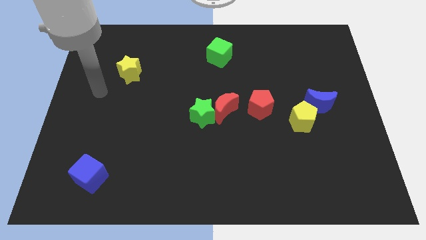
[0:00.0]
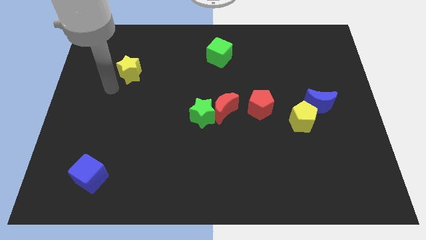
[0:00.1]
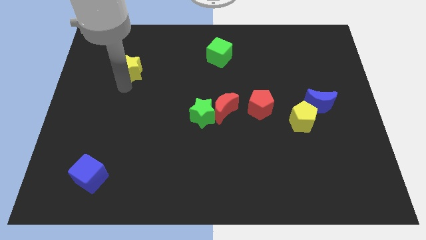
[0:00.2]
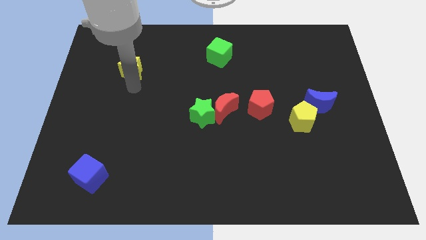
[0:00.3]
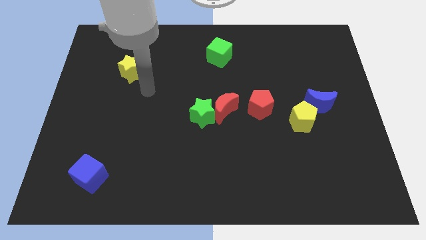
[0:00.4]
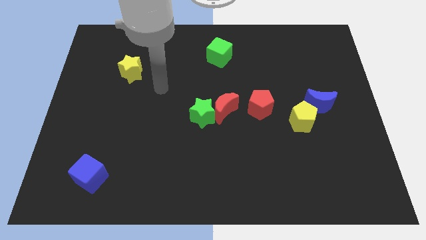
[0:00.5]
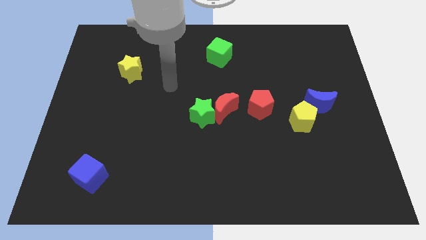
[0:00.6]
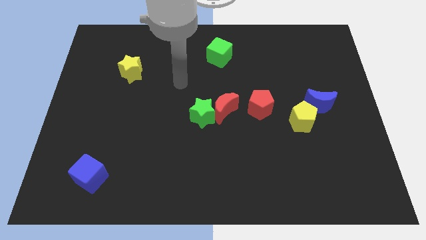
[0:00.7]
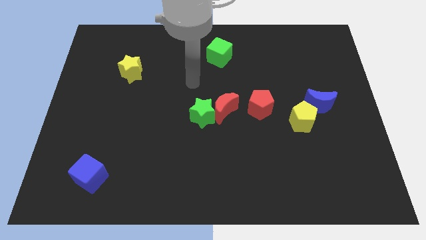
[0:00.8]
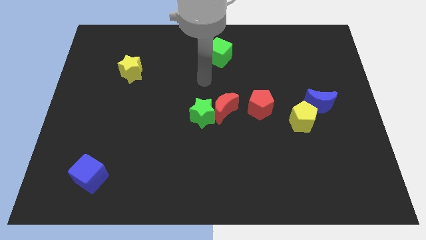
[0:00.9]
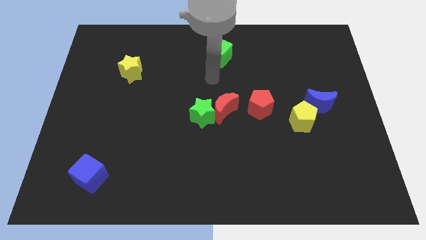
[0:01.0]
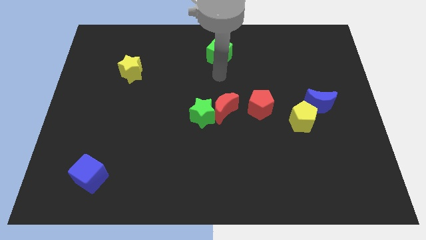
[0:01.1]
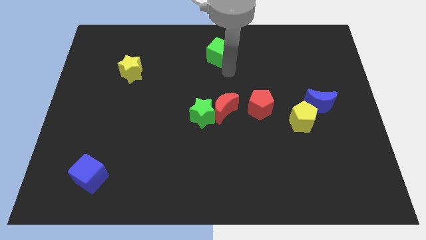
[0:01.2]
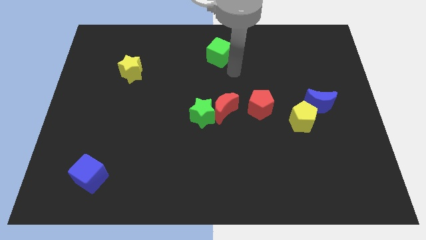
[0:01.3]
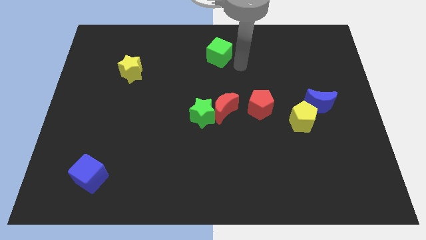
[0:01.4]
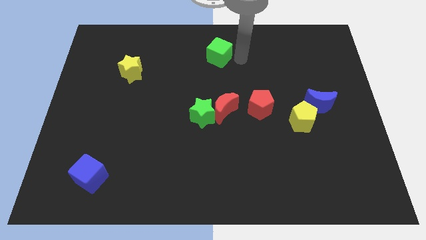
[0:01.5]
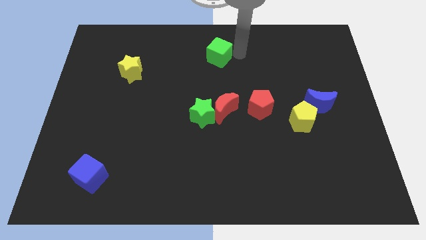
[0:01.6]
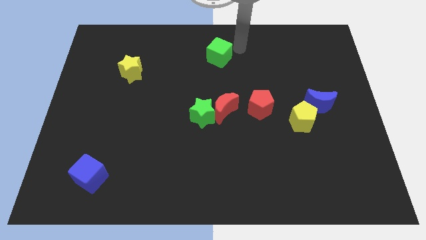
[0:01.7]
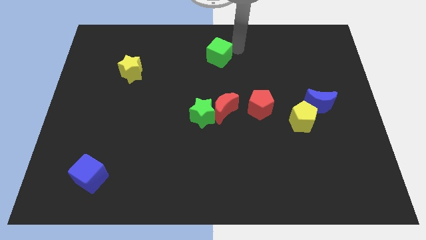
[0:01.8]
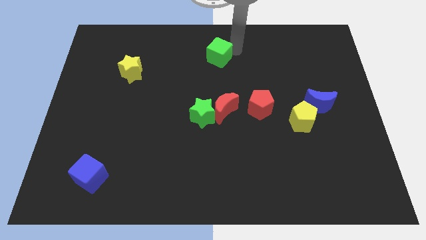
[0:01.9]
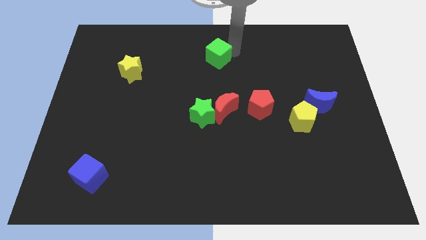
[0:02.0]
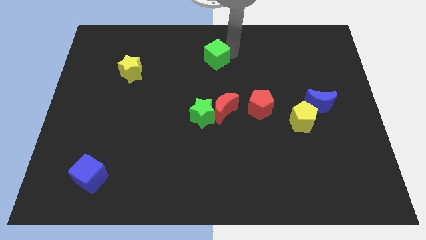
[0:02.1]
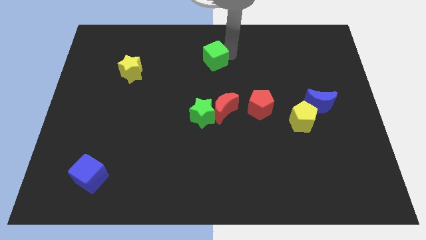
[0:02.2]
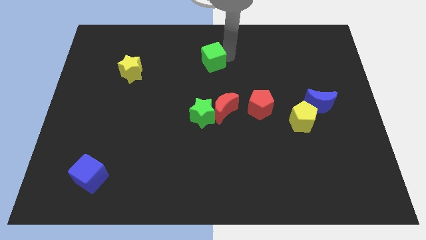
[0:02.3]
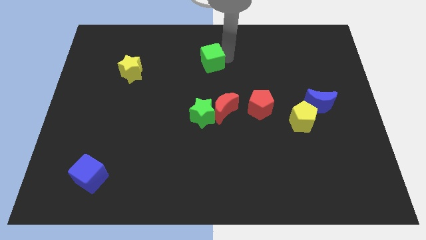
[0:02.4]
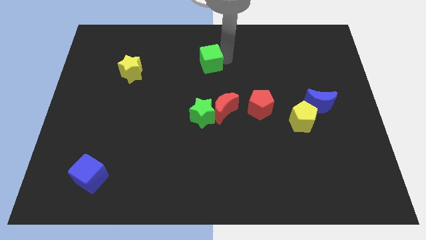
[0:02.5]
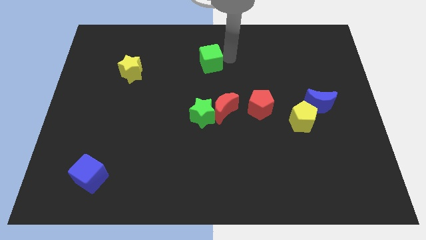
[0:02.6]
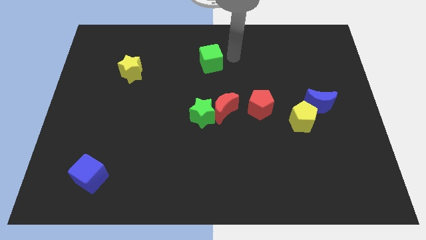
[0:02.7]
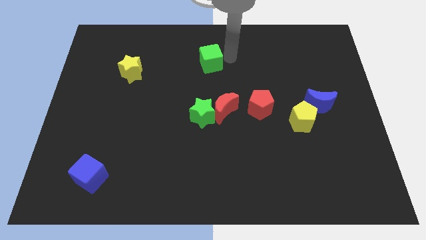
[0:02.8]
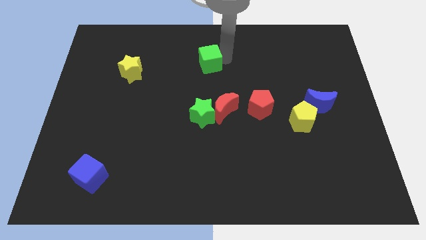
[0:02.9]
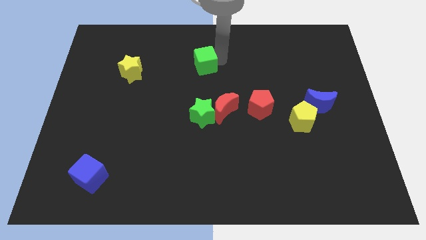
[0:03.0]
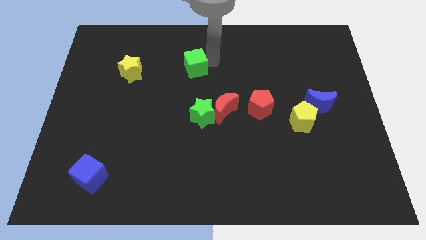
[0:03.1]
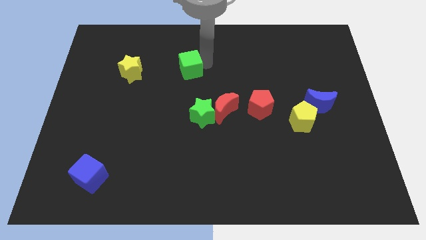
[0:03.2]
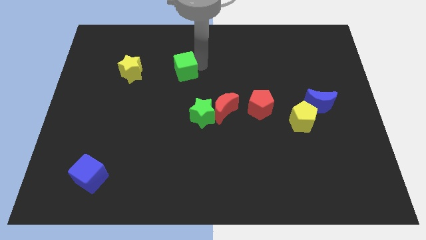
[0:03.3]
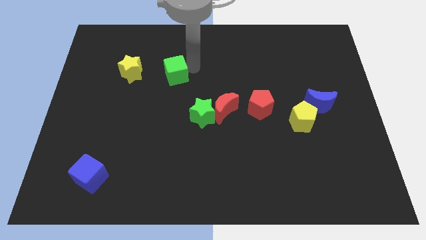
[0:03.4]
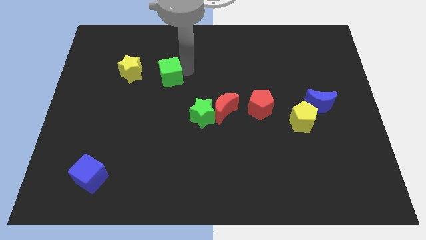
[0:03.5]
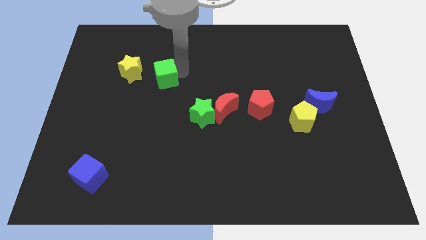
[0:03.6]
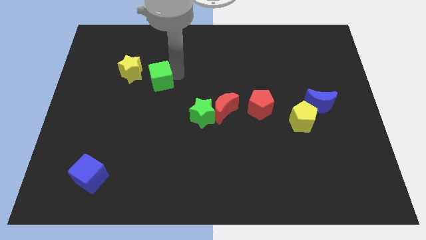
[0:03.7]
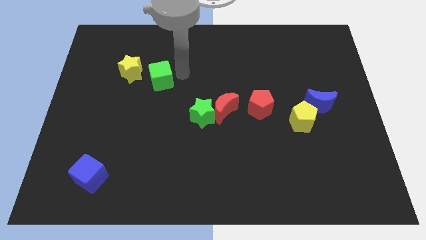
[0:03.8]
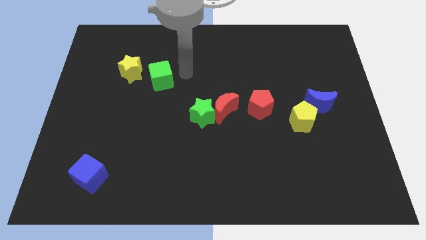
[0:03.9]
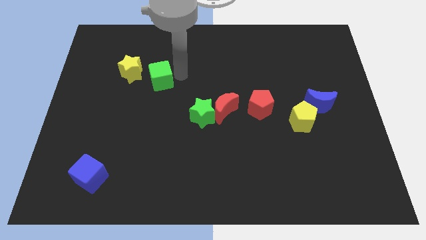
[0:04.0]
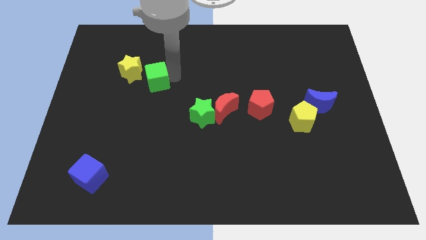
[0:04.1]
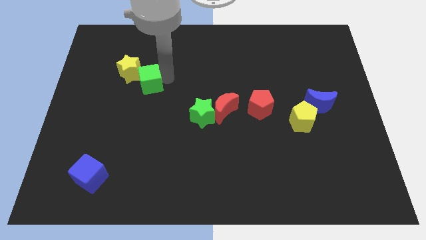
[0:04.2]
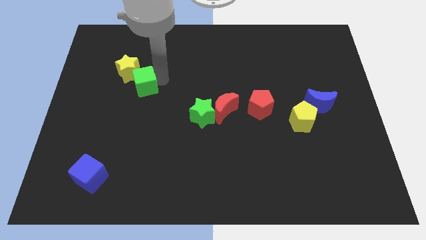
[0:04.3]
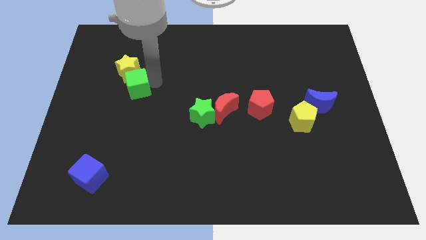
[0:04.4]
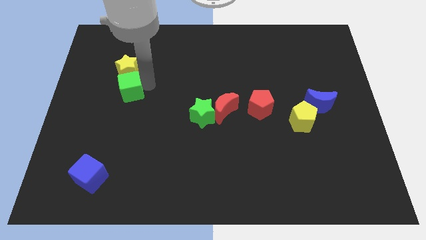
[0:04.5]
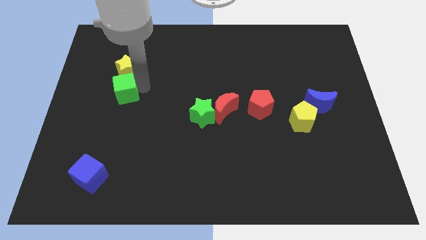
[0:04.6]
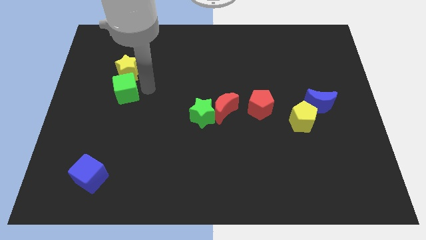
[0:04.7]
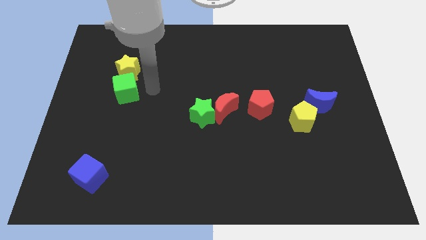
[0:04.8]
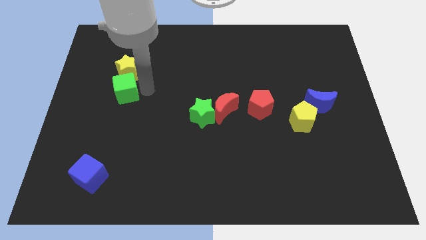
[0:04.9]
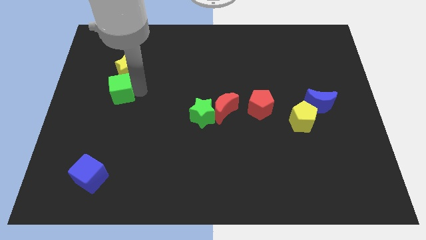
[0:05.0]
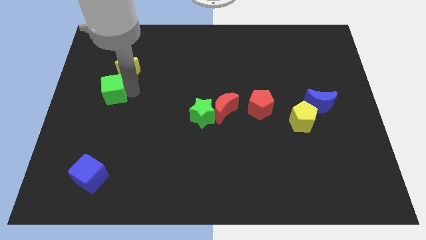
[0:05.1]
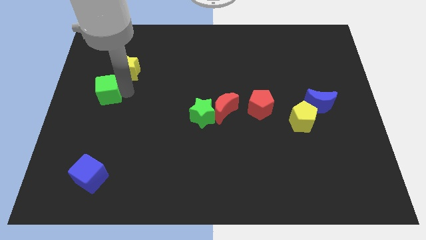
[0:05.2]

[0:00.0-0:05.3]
slide the green cube to the left side
